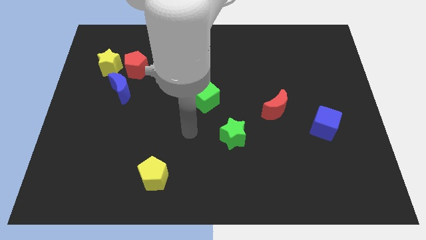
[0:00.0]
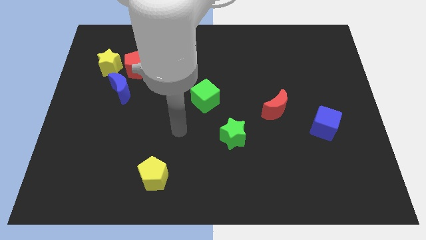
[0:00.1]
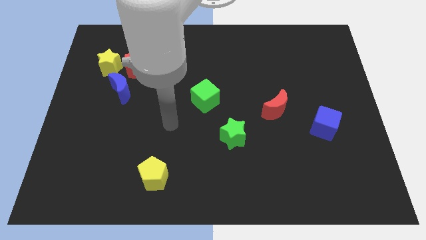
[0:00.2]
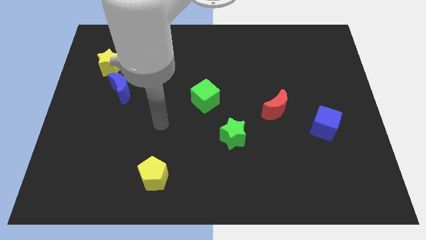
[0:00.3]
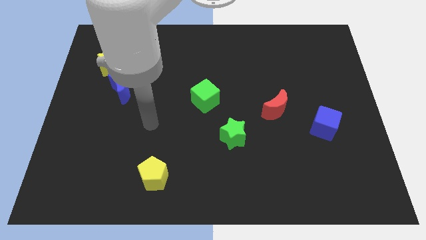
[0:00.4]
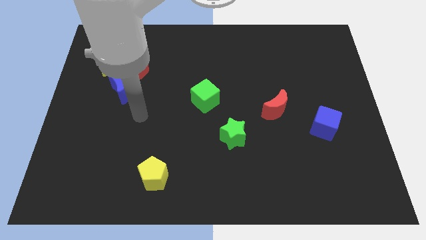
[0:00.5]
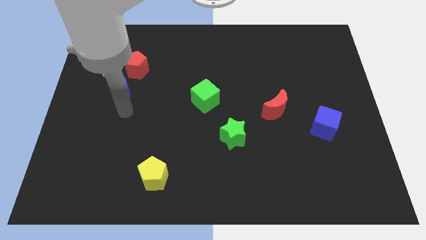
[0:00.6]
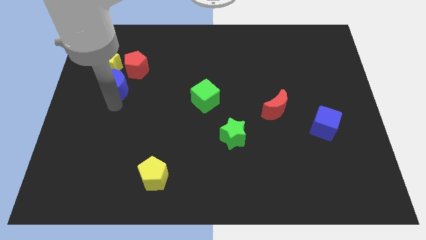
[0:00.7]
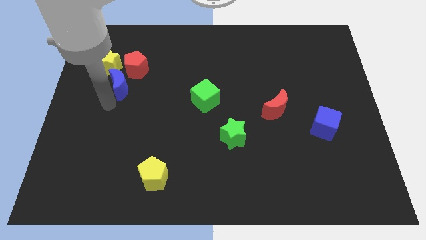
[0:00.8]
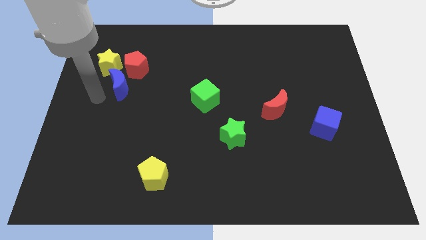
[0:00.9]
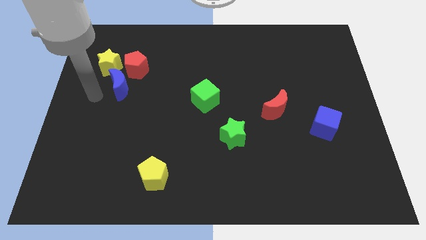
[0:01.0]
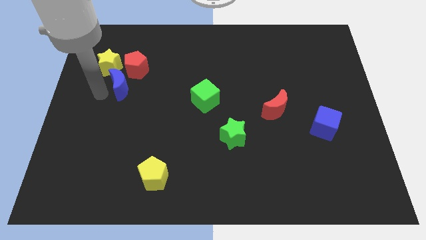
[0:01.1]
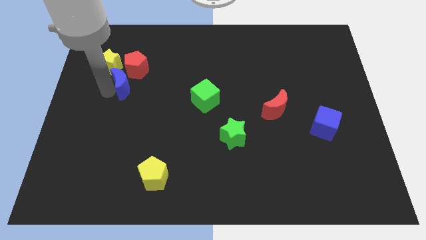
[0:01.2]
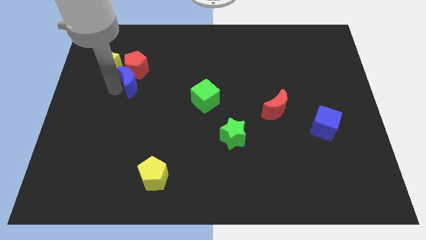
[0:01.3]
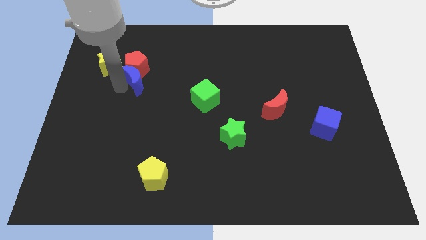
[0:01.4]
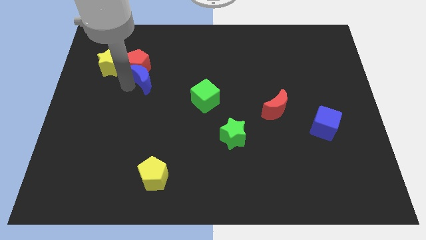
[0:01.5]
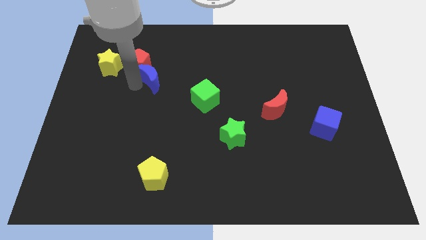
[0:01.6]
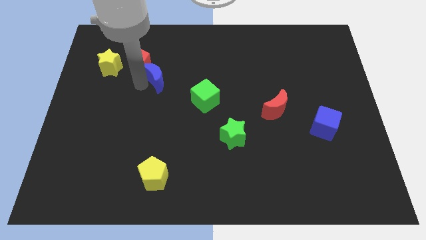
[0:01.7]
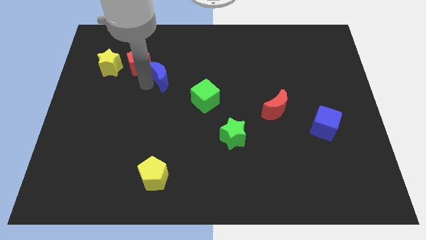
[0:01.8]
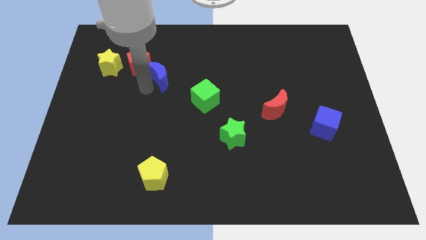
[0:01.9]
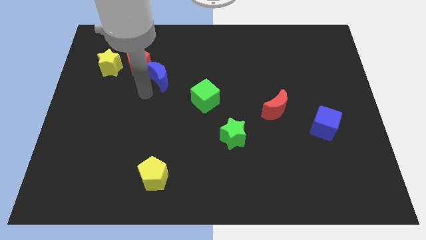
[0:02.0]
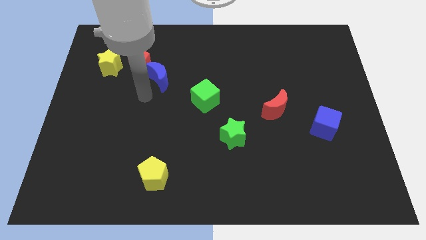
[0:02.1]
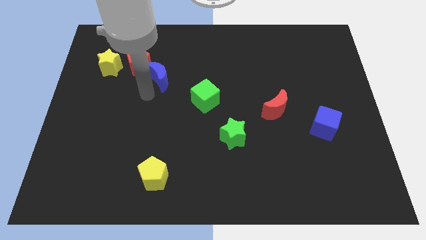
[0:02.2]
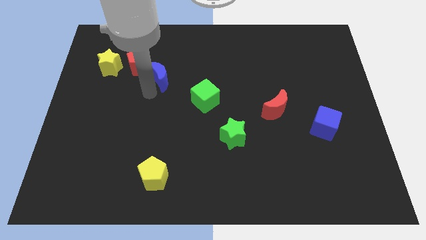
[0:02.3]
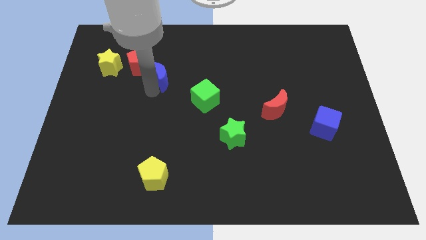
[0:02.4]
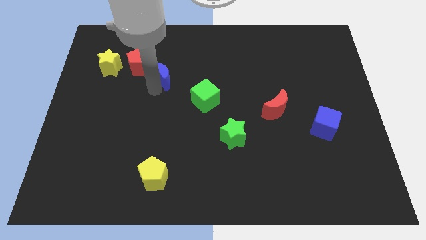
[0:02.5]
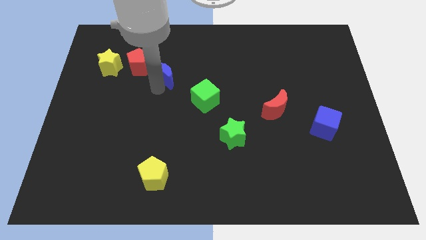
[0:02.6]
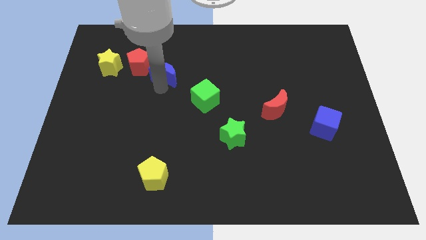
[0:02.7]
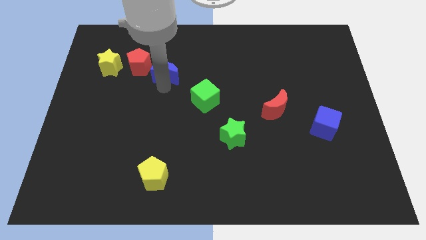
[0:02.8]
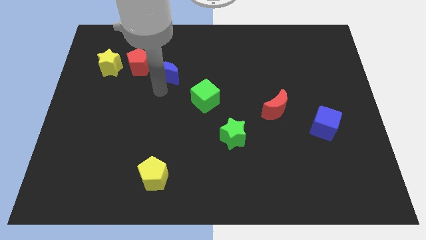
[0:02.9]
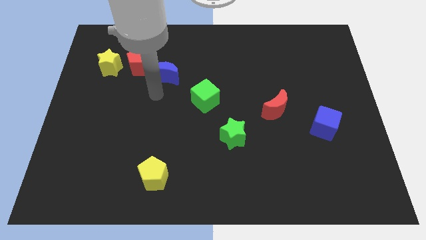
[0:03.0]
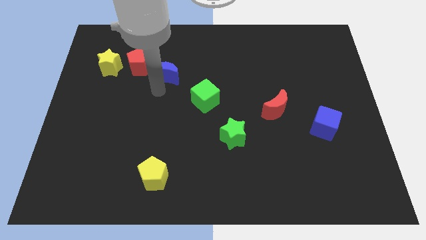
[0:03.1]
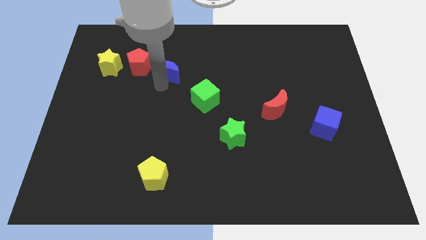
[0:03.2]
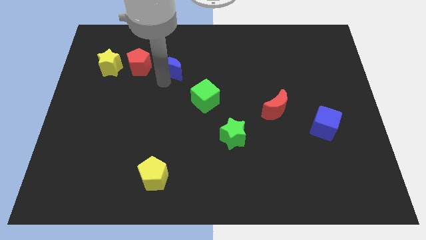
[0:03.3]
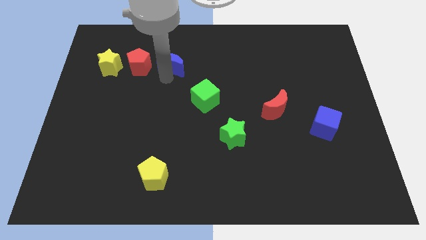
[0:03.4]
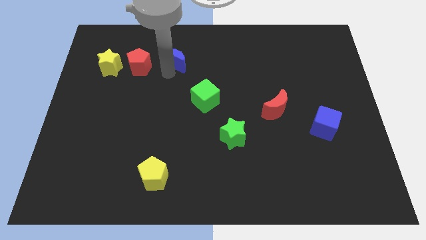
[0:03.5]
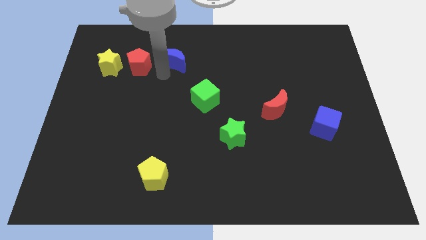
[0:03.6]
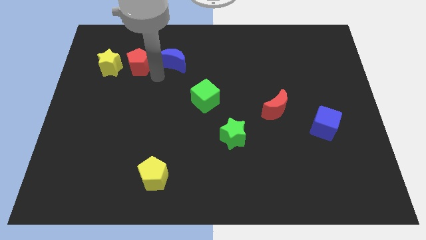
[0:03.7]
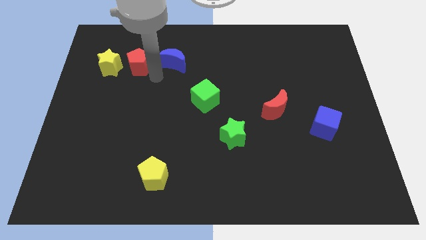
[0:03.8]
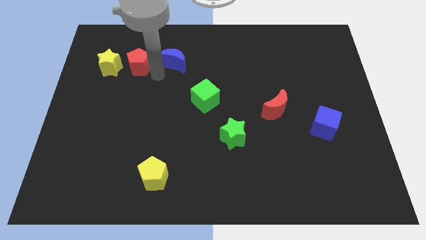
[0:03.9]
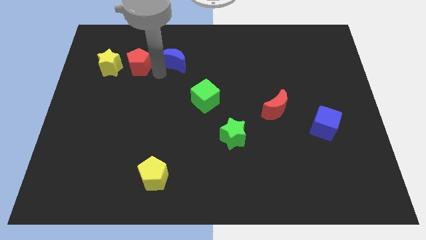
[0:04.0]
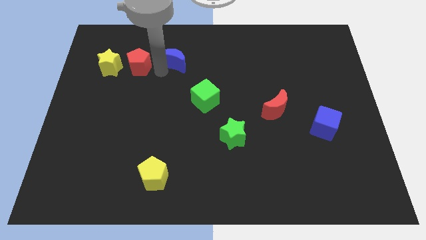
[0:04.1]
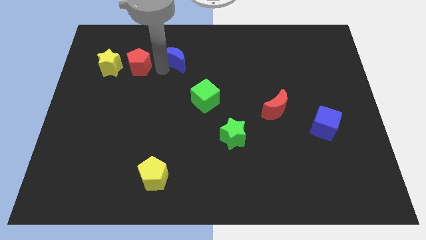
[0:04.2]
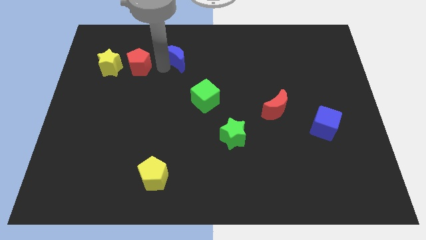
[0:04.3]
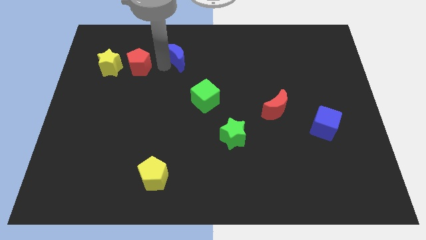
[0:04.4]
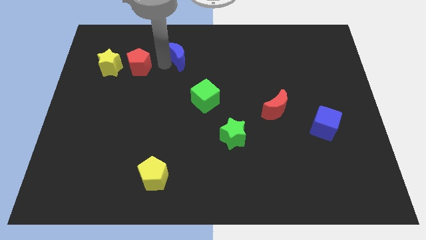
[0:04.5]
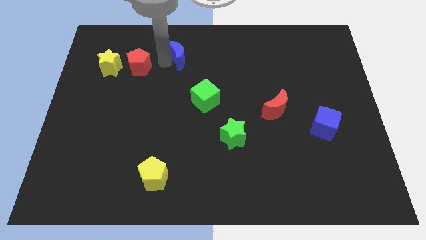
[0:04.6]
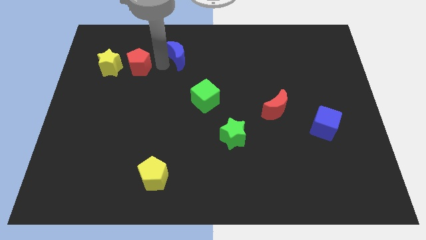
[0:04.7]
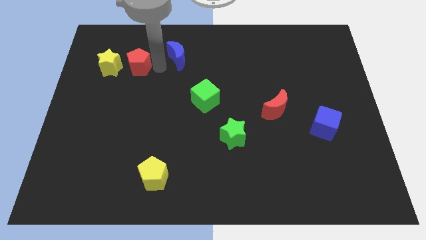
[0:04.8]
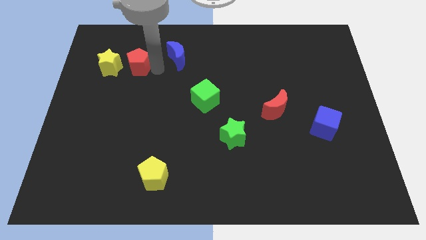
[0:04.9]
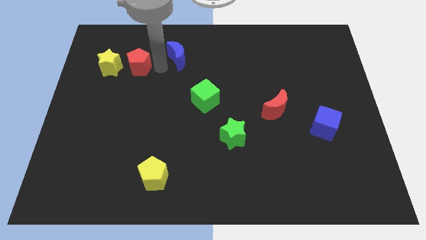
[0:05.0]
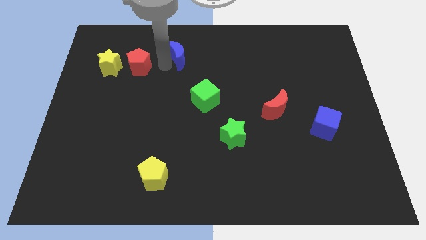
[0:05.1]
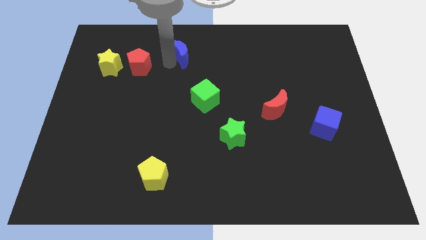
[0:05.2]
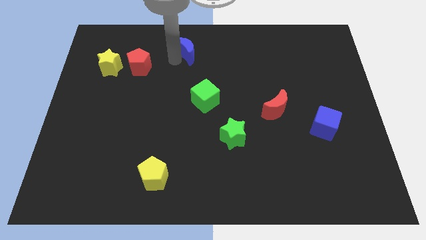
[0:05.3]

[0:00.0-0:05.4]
push the blue moon to the towards your base

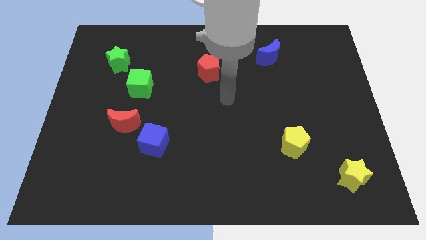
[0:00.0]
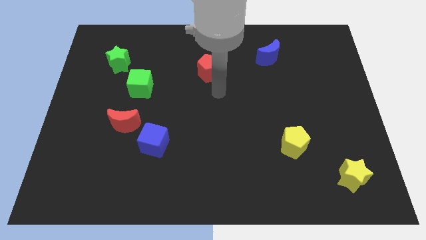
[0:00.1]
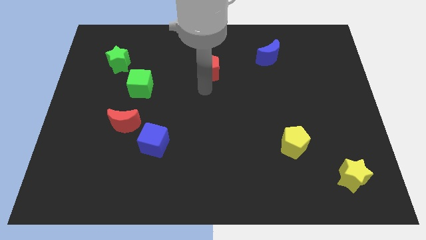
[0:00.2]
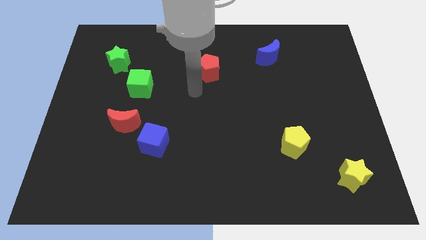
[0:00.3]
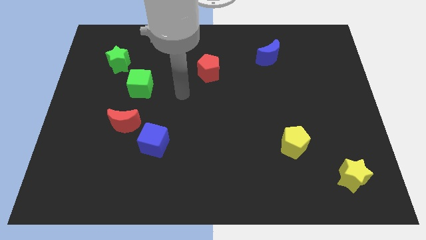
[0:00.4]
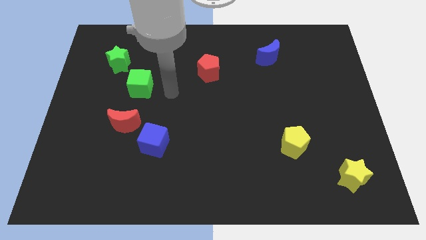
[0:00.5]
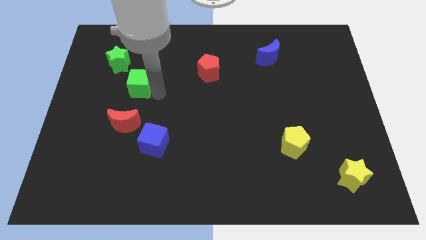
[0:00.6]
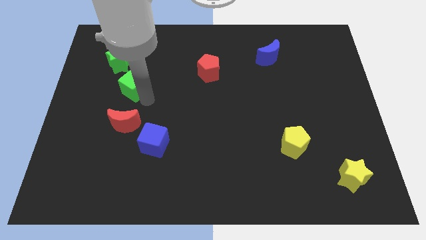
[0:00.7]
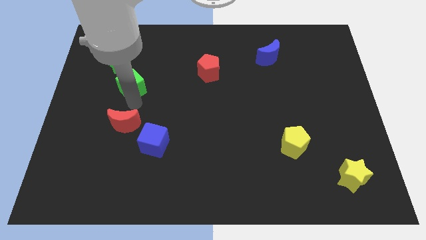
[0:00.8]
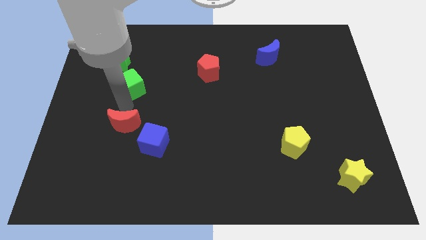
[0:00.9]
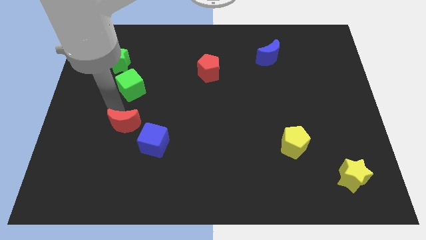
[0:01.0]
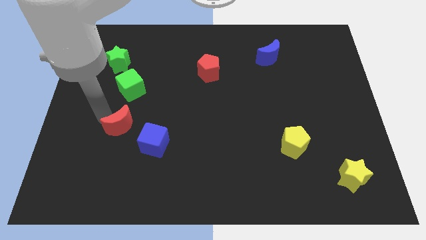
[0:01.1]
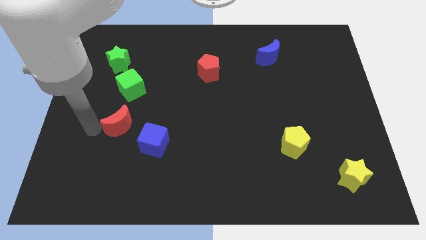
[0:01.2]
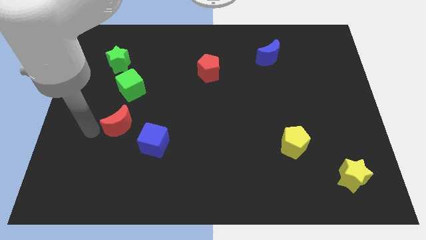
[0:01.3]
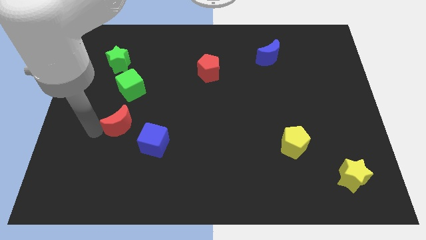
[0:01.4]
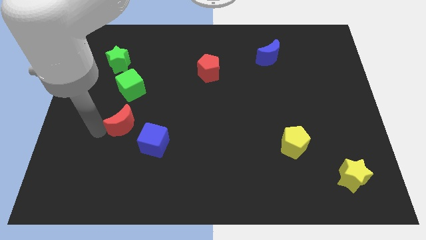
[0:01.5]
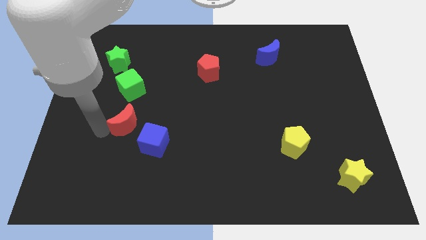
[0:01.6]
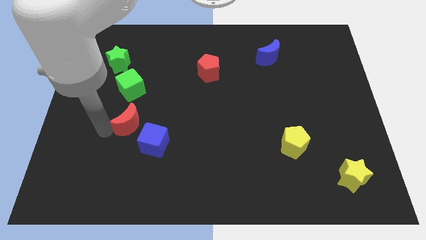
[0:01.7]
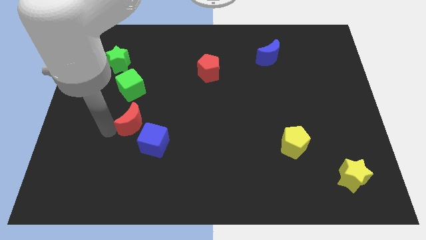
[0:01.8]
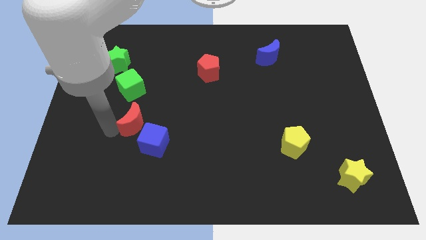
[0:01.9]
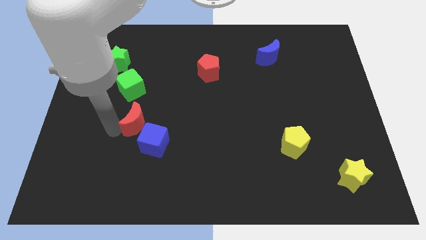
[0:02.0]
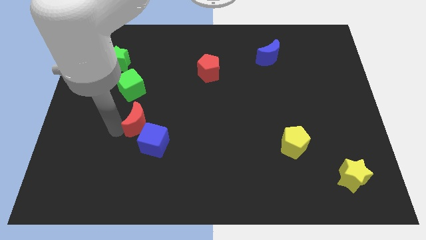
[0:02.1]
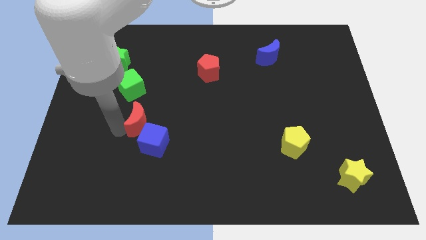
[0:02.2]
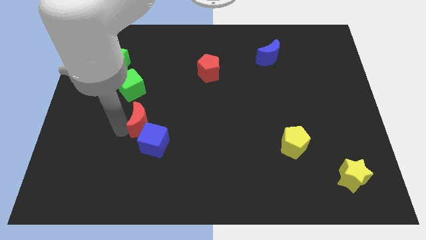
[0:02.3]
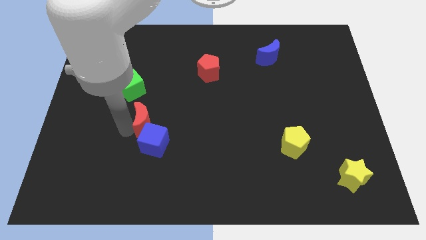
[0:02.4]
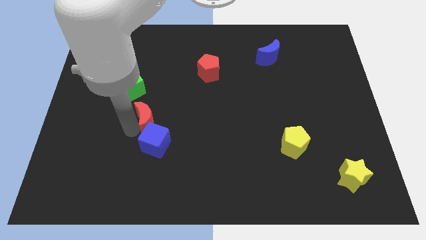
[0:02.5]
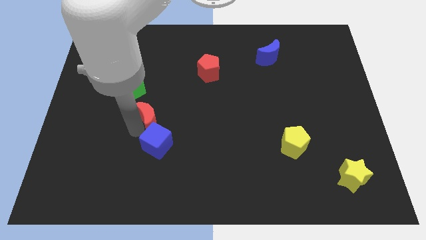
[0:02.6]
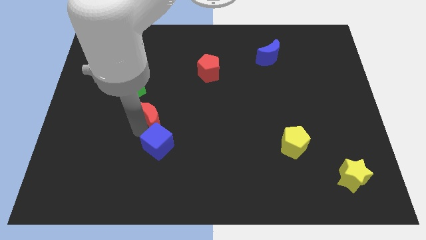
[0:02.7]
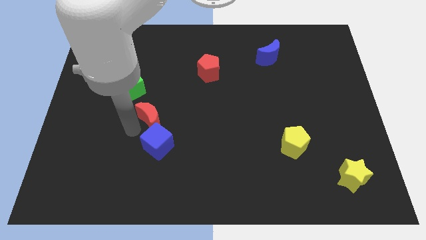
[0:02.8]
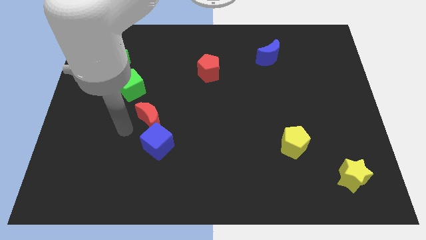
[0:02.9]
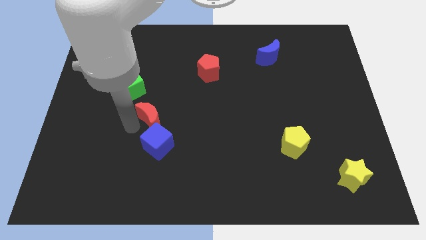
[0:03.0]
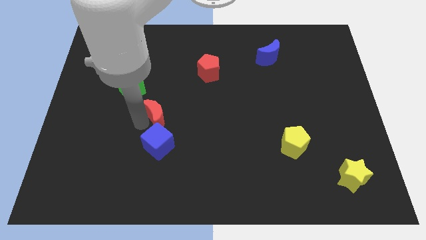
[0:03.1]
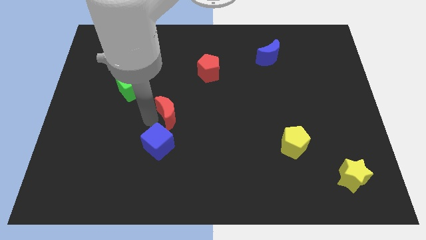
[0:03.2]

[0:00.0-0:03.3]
move the red moon to the center of the board
